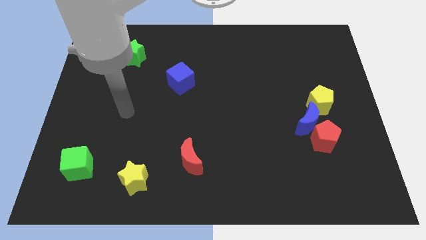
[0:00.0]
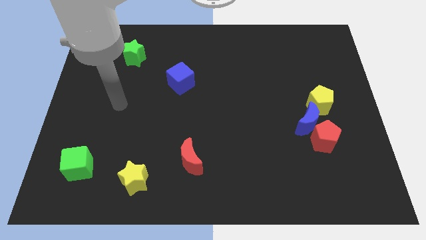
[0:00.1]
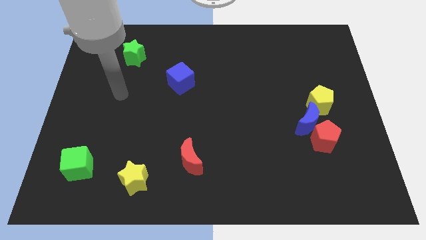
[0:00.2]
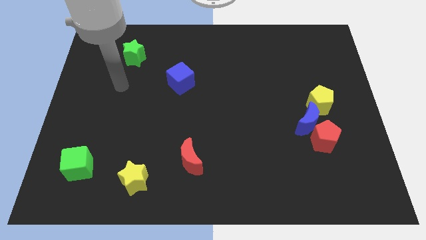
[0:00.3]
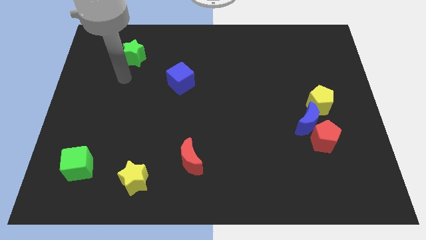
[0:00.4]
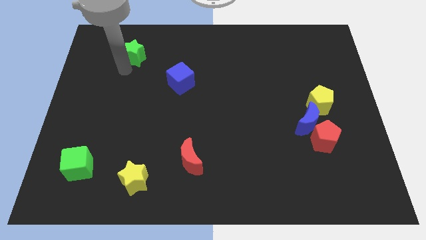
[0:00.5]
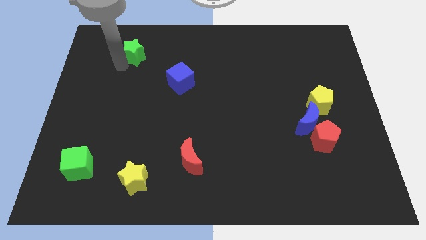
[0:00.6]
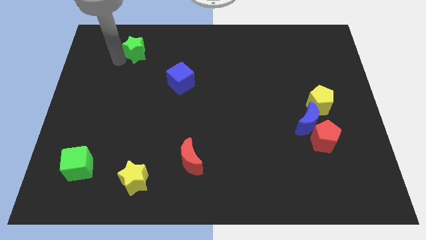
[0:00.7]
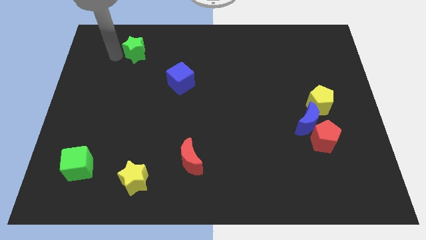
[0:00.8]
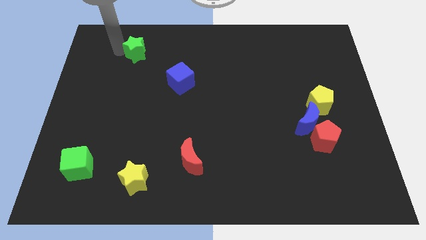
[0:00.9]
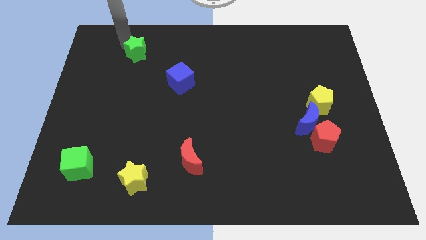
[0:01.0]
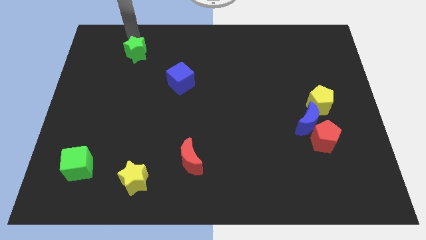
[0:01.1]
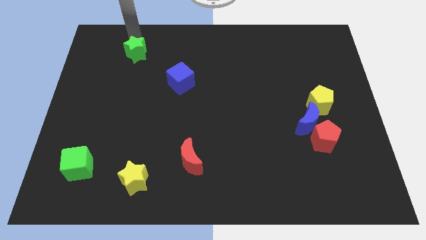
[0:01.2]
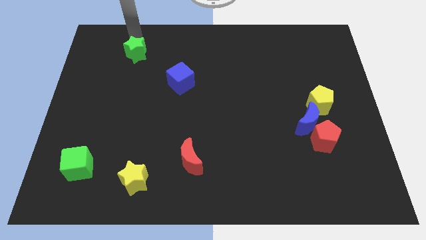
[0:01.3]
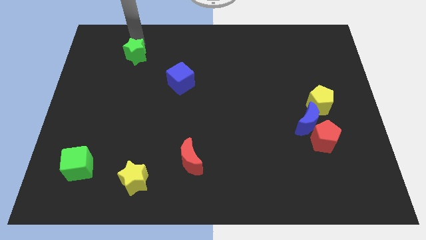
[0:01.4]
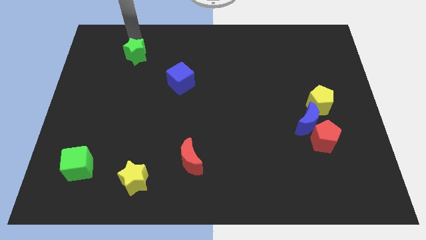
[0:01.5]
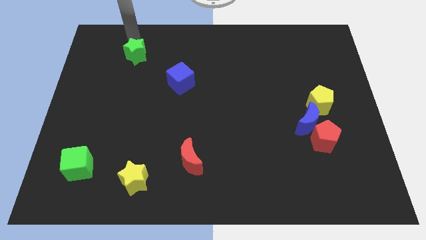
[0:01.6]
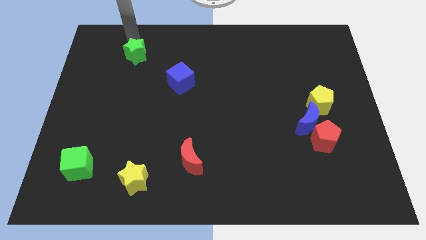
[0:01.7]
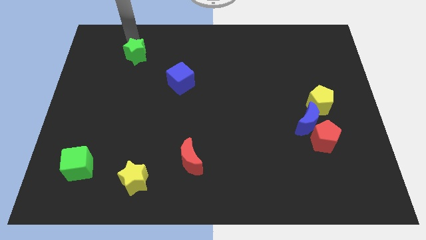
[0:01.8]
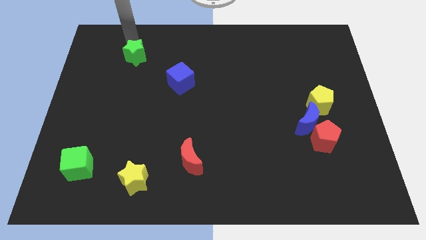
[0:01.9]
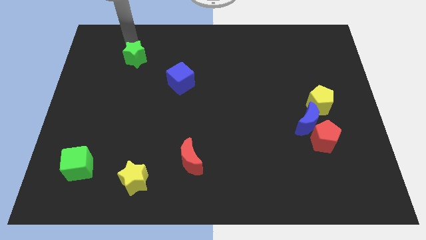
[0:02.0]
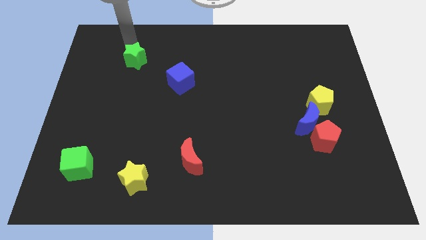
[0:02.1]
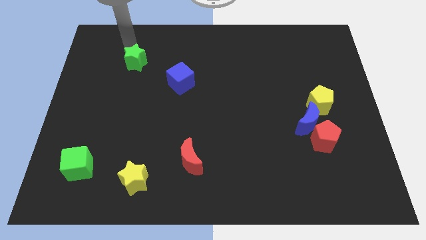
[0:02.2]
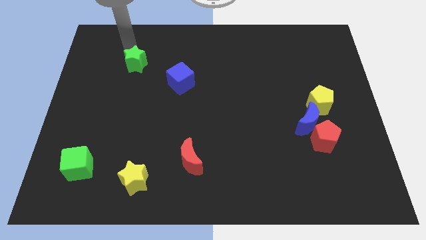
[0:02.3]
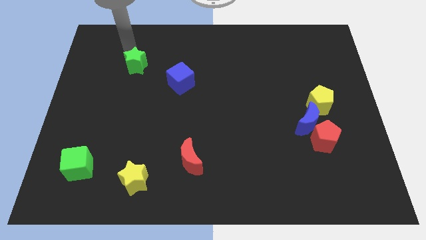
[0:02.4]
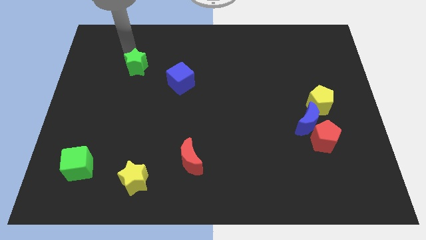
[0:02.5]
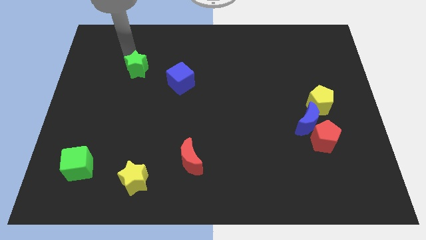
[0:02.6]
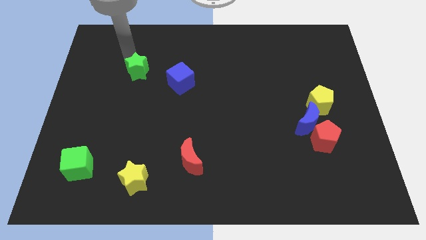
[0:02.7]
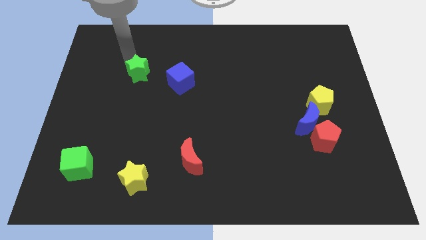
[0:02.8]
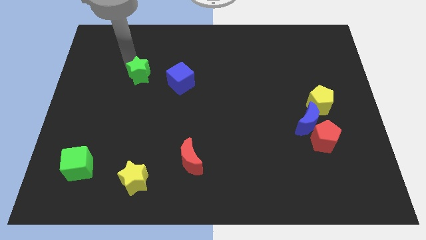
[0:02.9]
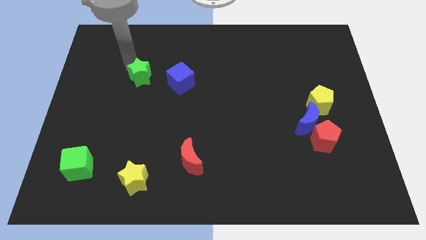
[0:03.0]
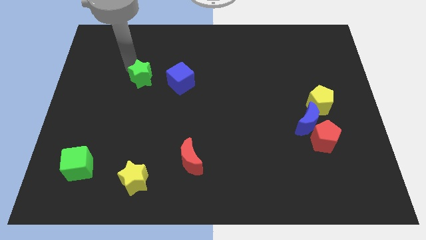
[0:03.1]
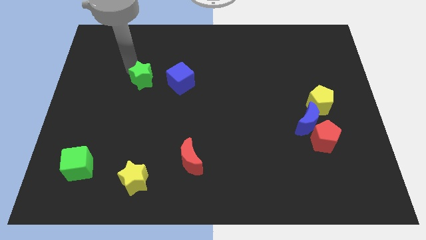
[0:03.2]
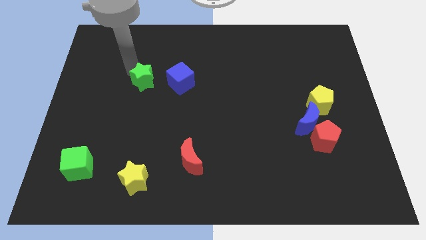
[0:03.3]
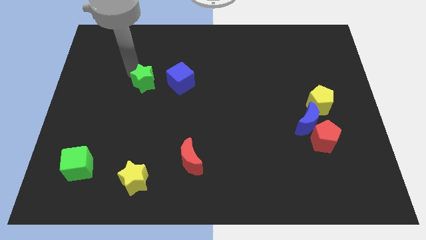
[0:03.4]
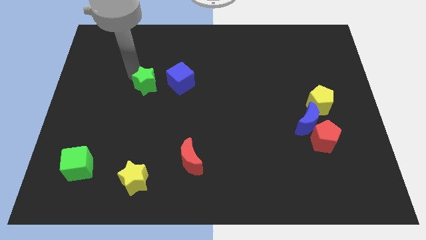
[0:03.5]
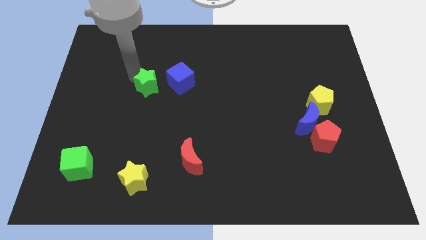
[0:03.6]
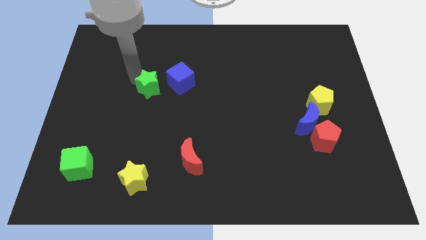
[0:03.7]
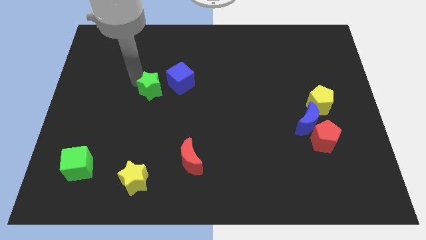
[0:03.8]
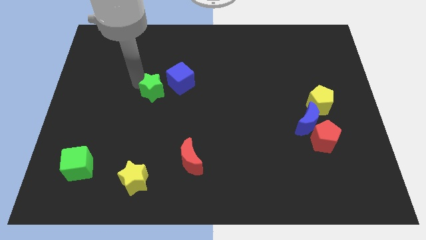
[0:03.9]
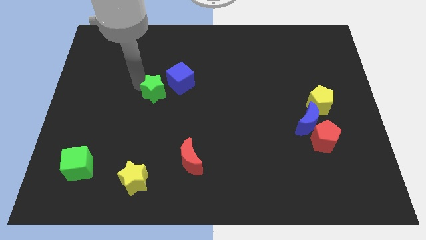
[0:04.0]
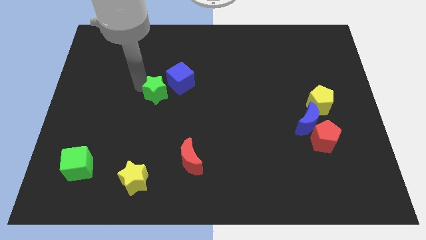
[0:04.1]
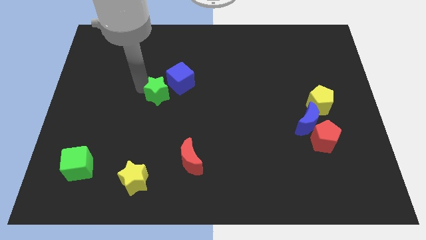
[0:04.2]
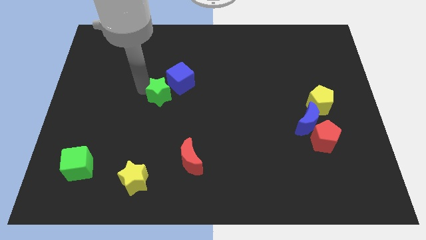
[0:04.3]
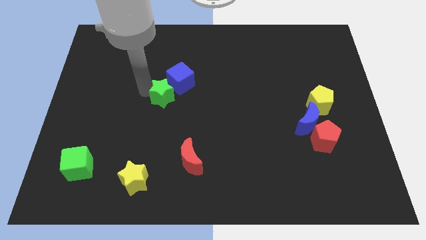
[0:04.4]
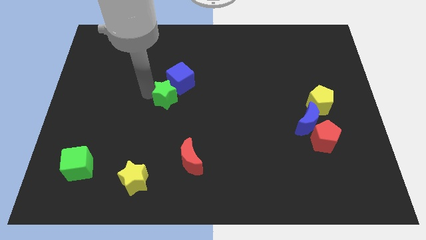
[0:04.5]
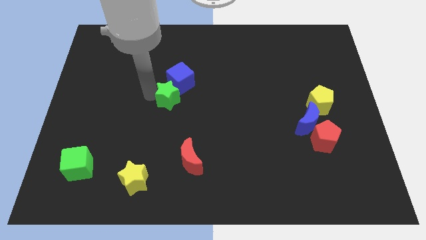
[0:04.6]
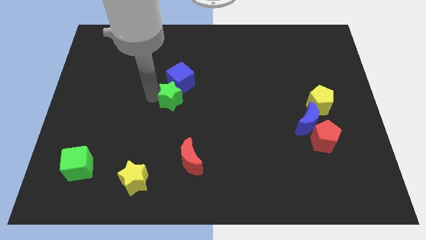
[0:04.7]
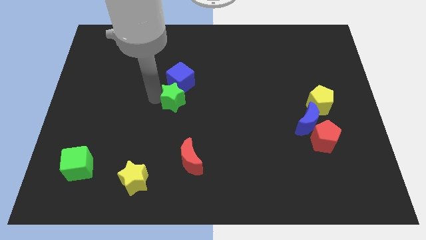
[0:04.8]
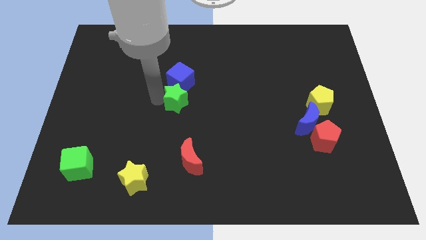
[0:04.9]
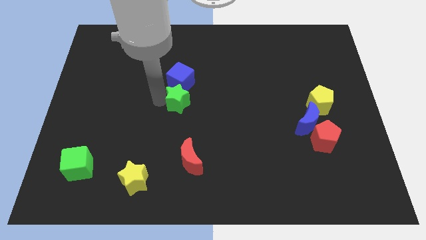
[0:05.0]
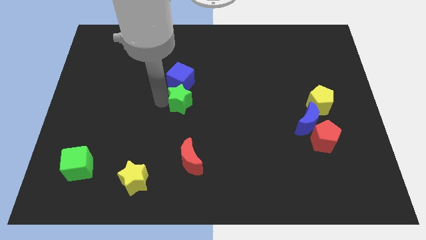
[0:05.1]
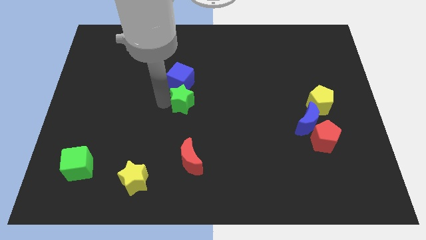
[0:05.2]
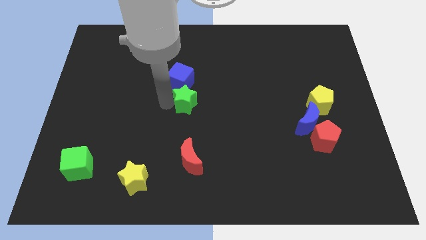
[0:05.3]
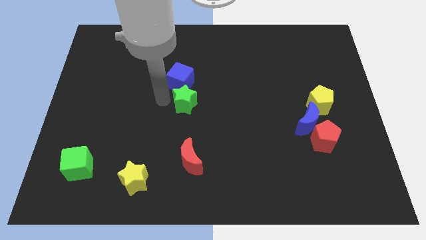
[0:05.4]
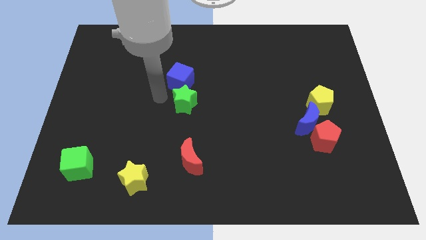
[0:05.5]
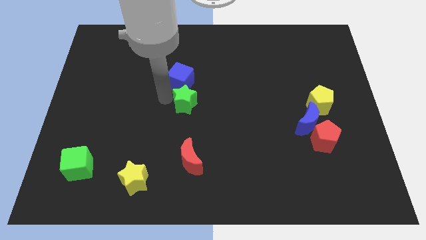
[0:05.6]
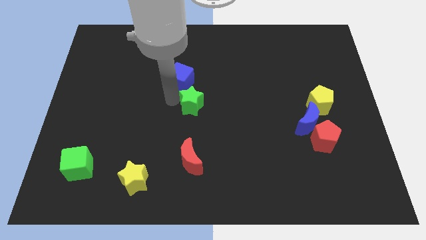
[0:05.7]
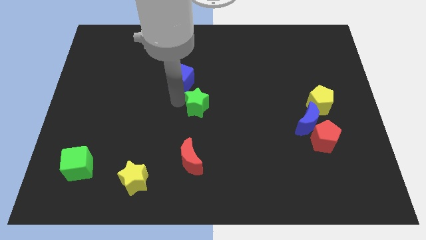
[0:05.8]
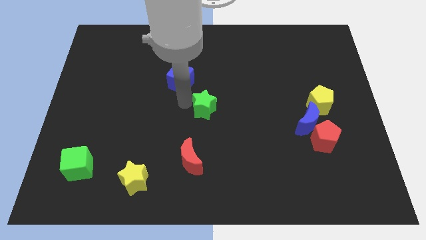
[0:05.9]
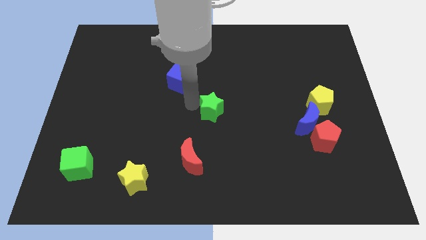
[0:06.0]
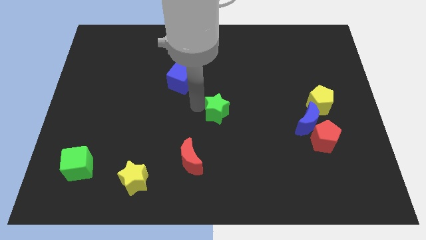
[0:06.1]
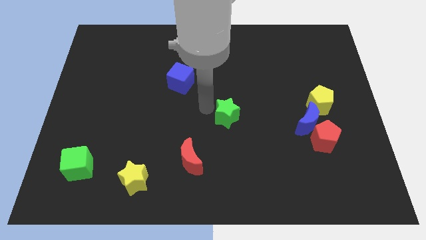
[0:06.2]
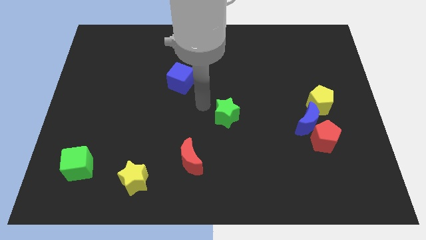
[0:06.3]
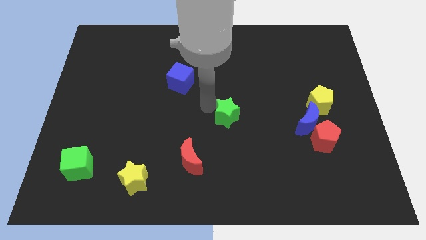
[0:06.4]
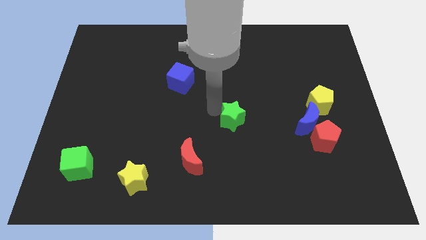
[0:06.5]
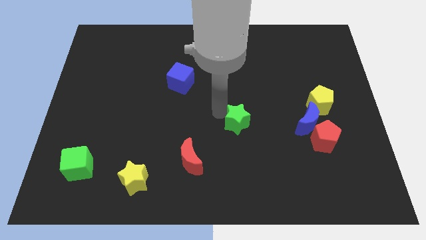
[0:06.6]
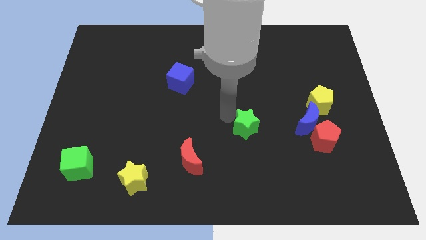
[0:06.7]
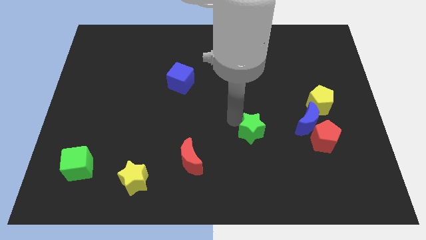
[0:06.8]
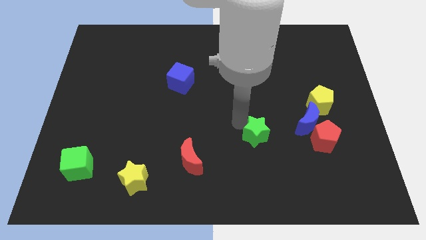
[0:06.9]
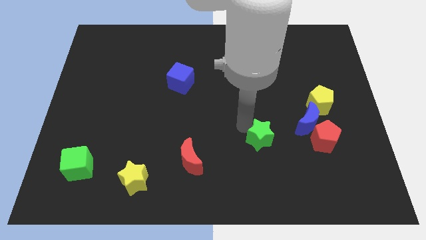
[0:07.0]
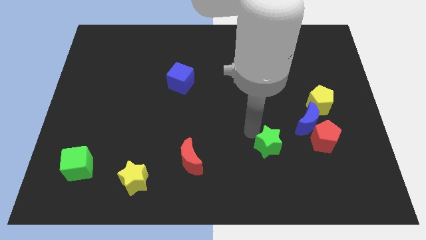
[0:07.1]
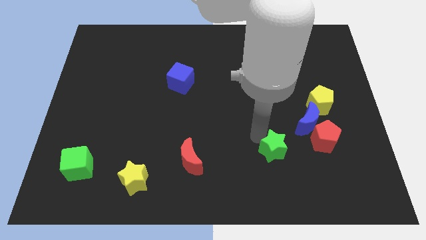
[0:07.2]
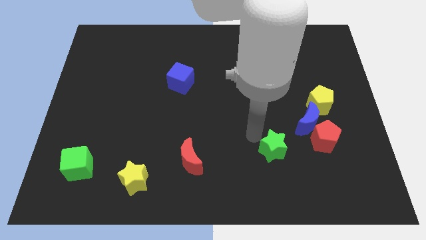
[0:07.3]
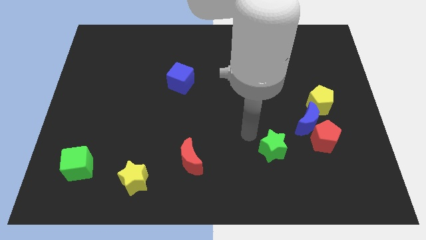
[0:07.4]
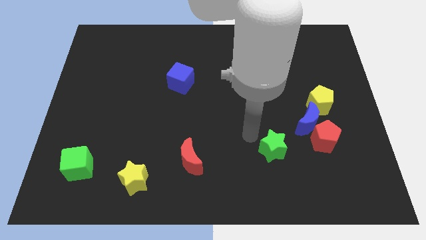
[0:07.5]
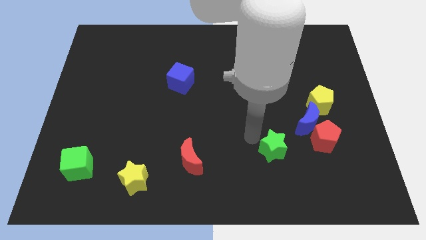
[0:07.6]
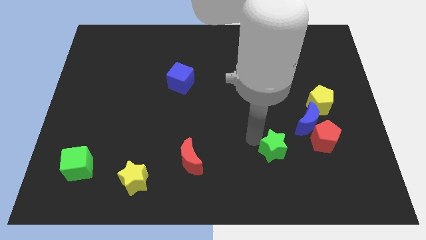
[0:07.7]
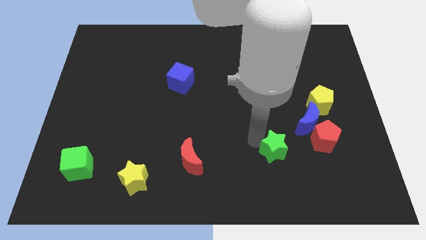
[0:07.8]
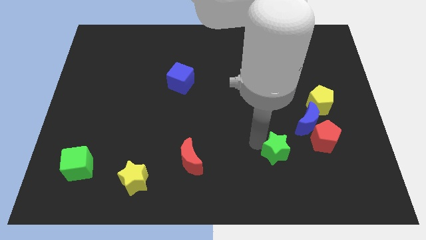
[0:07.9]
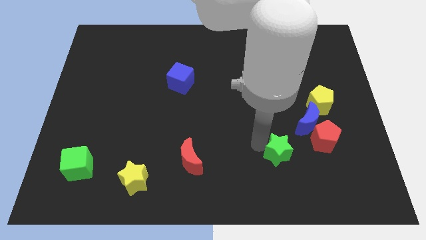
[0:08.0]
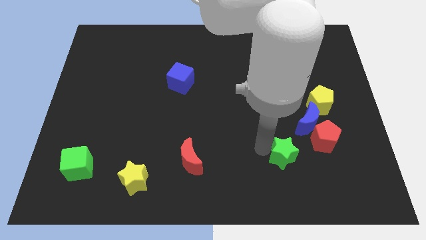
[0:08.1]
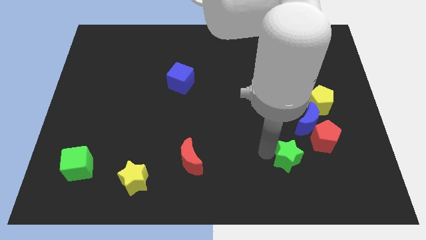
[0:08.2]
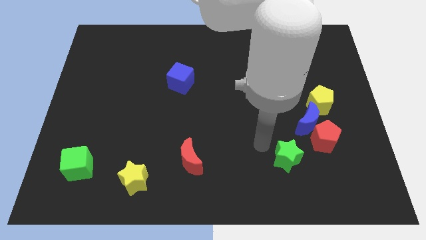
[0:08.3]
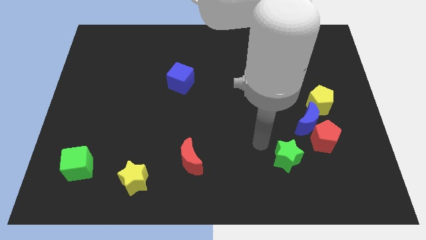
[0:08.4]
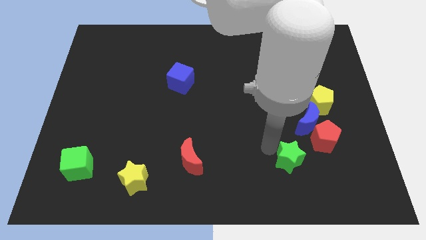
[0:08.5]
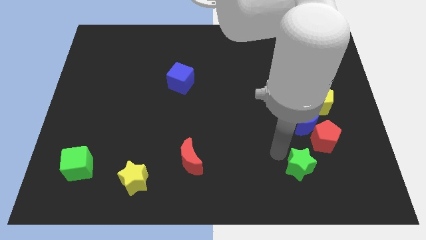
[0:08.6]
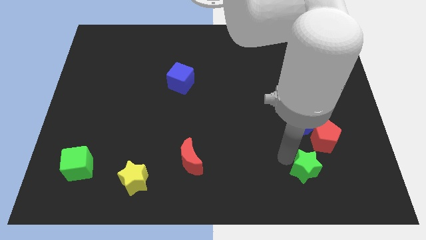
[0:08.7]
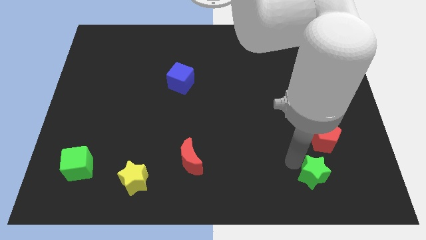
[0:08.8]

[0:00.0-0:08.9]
put the green star to the bottom side of the red pentagon
